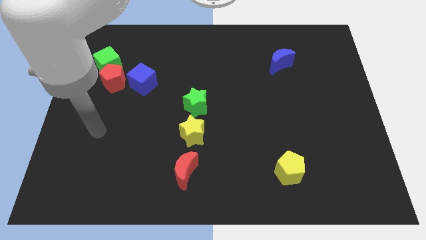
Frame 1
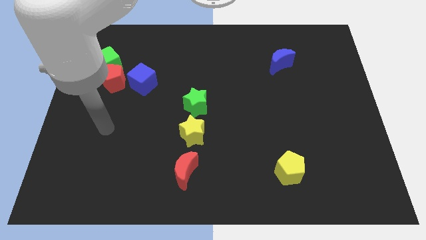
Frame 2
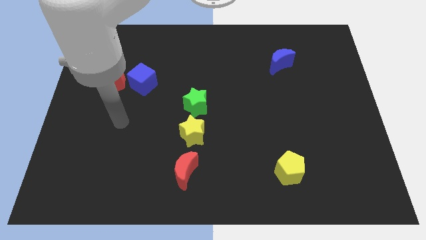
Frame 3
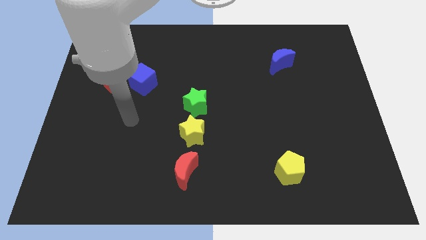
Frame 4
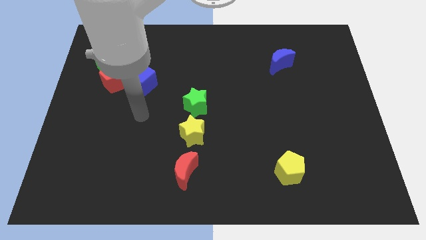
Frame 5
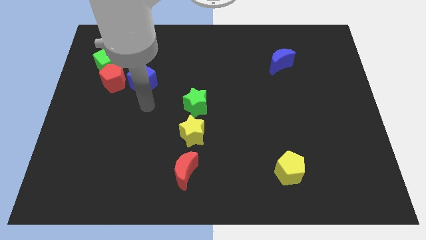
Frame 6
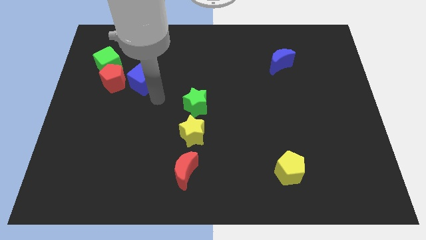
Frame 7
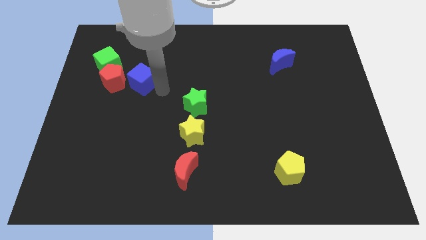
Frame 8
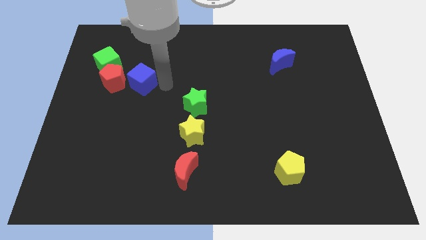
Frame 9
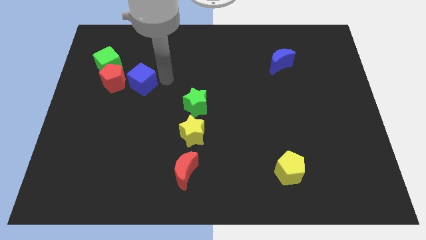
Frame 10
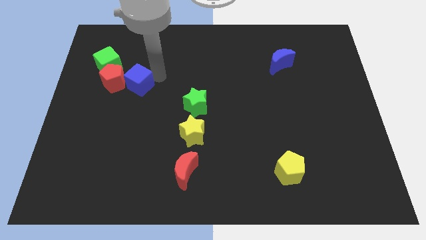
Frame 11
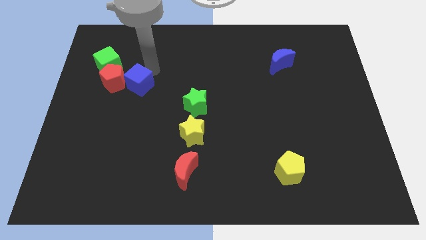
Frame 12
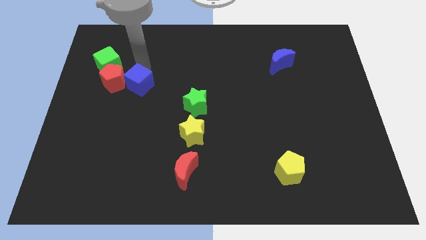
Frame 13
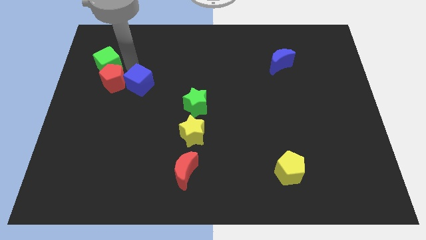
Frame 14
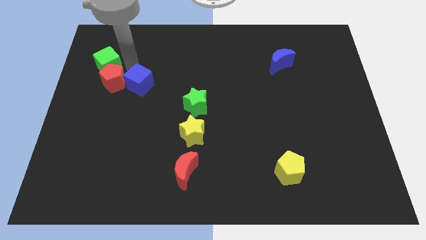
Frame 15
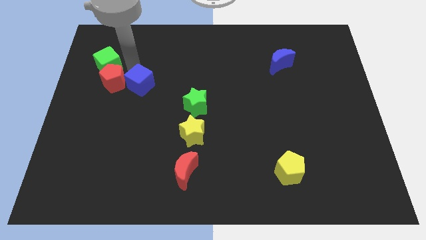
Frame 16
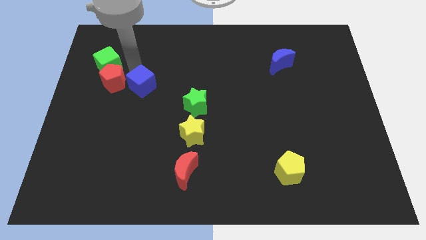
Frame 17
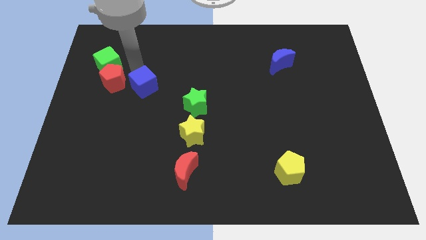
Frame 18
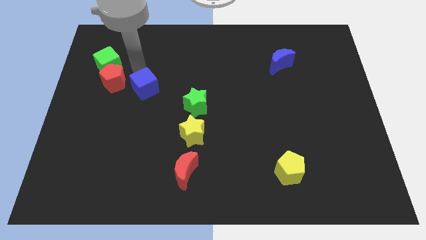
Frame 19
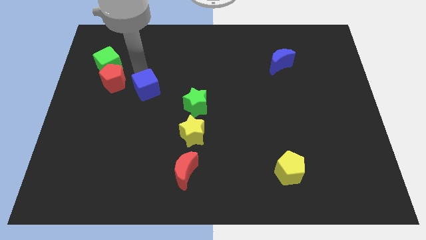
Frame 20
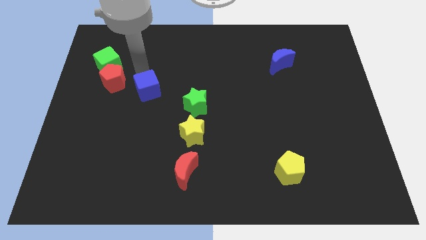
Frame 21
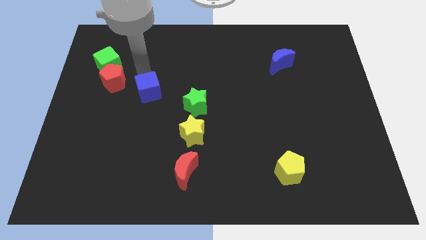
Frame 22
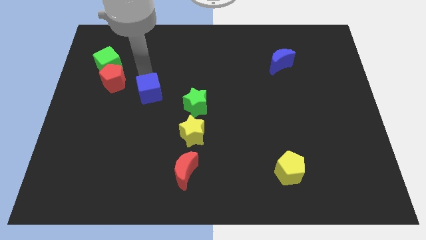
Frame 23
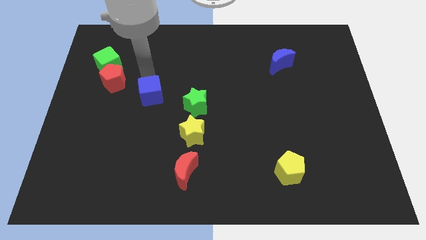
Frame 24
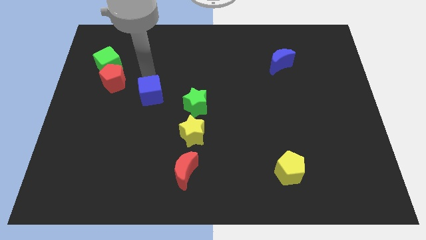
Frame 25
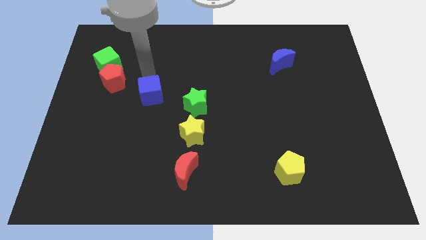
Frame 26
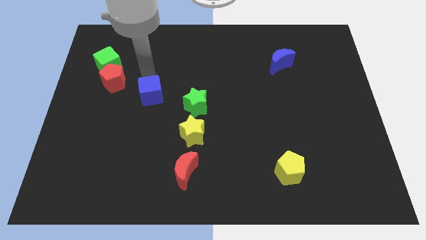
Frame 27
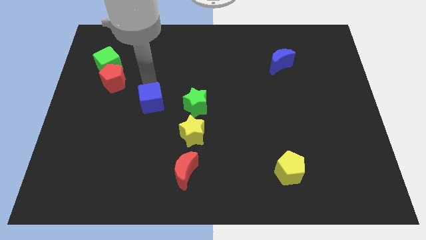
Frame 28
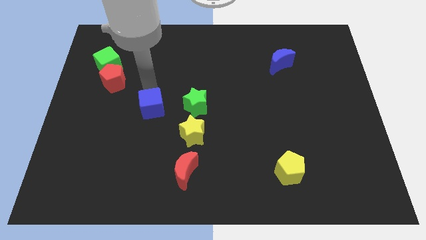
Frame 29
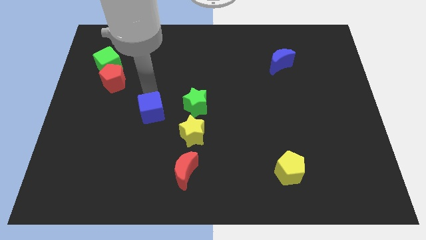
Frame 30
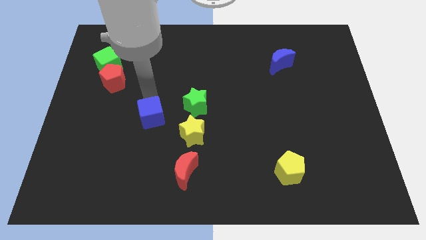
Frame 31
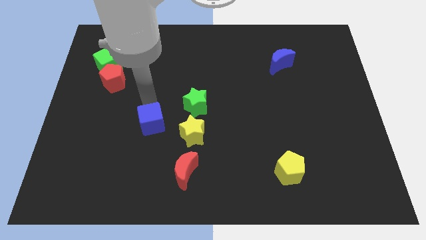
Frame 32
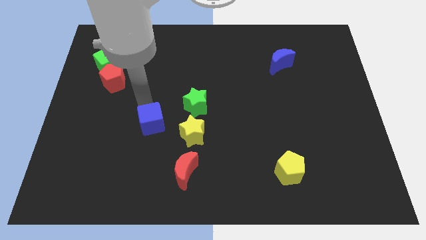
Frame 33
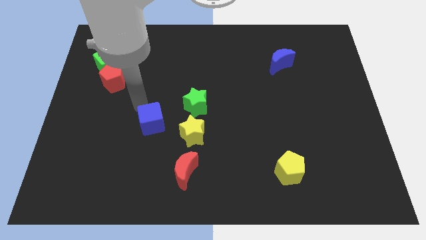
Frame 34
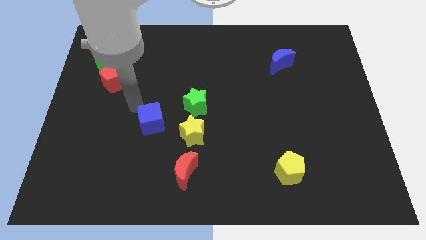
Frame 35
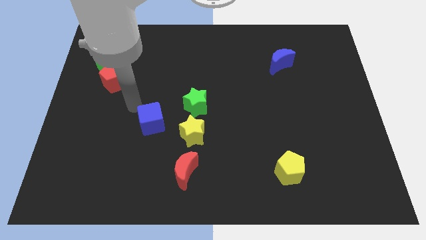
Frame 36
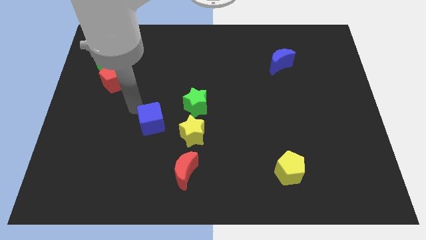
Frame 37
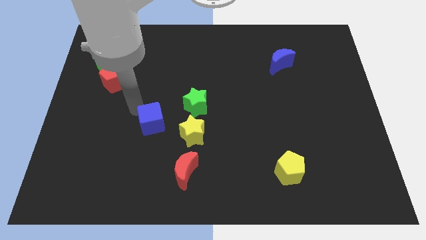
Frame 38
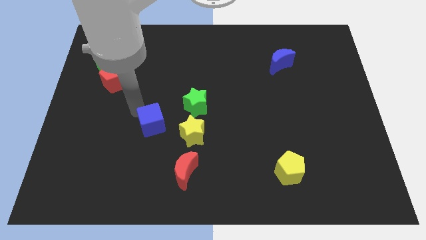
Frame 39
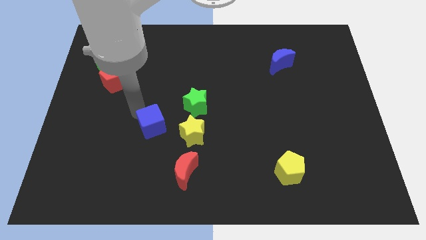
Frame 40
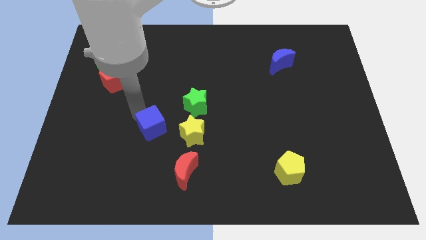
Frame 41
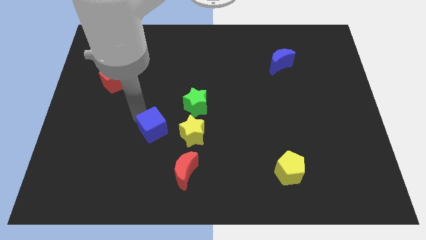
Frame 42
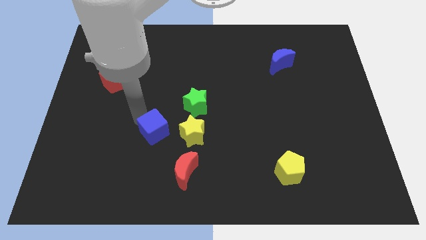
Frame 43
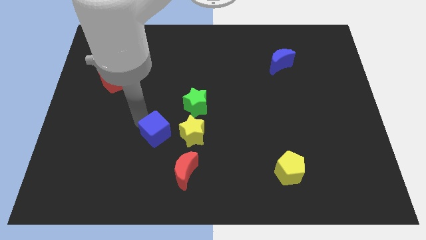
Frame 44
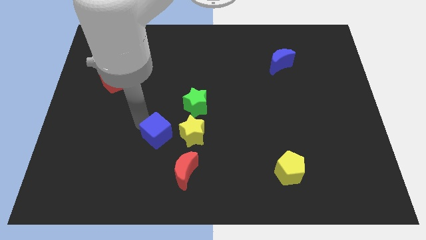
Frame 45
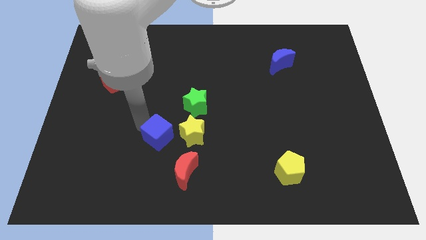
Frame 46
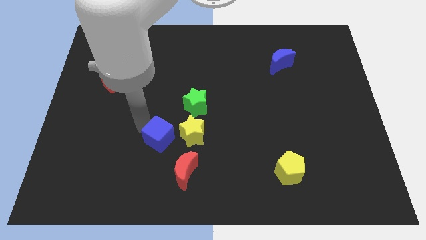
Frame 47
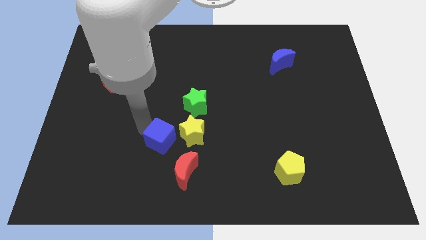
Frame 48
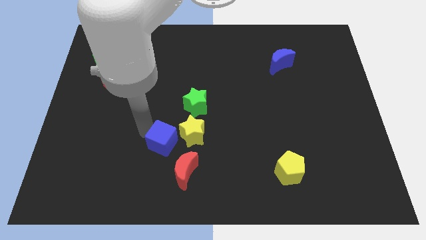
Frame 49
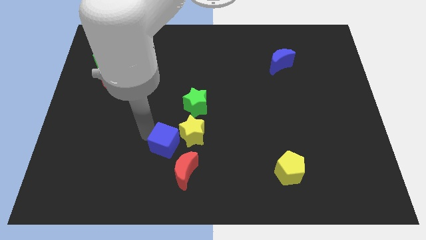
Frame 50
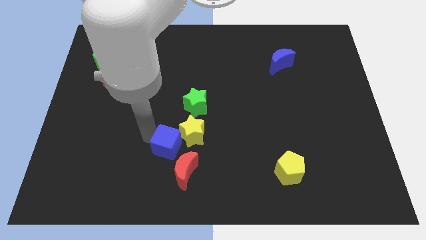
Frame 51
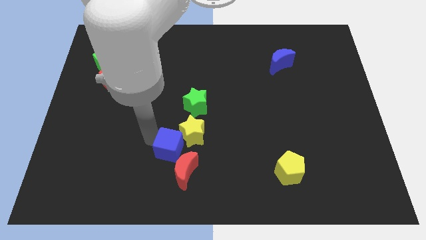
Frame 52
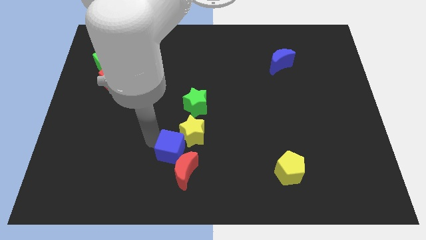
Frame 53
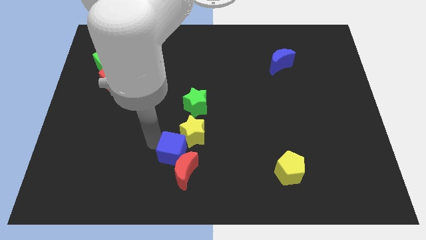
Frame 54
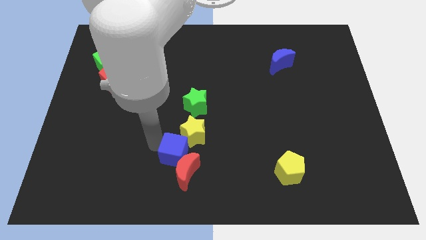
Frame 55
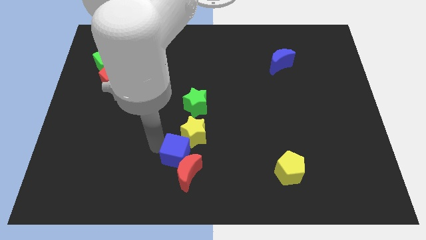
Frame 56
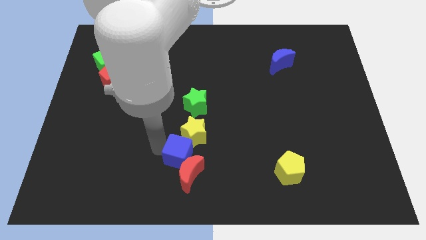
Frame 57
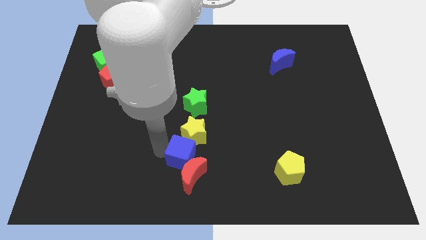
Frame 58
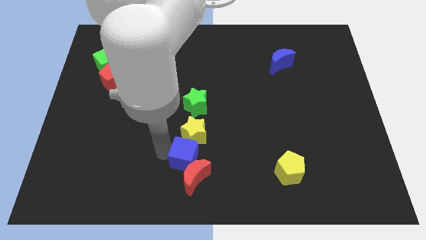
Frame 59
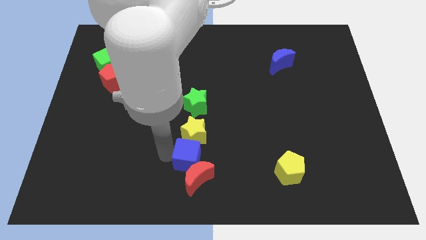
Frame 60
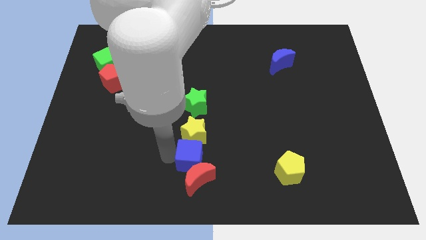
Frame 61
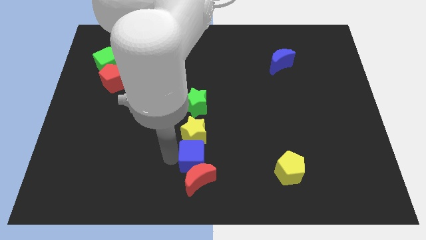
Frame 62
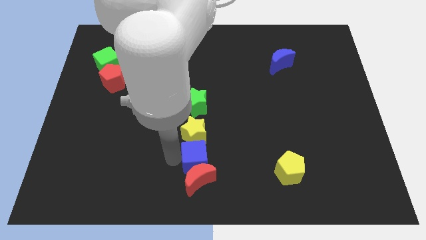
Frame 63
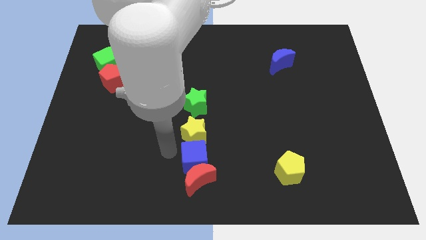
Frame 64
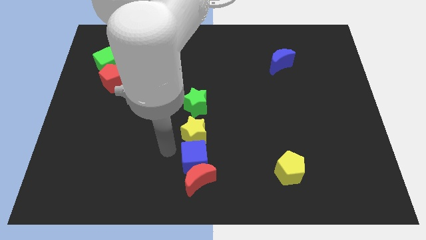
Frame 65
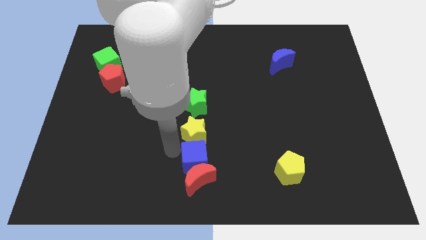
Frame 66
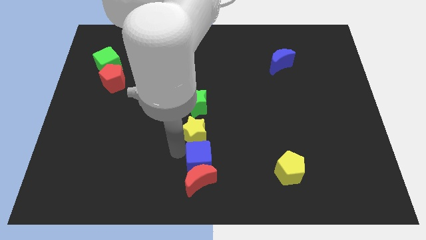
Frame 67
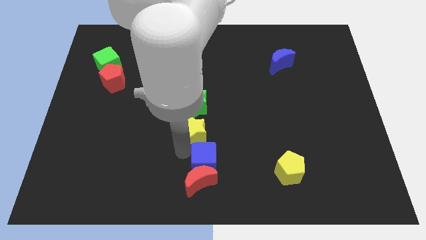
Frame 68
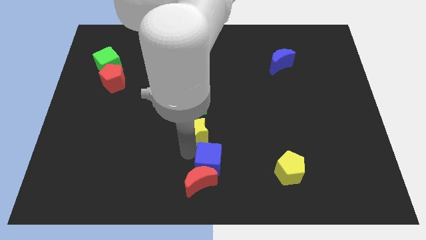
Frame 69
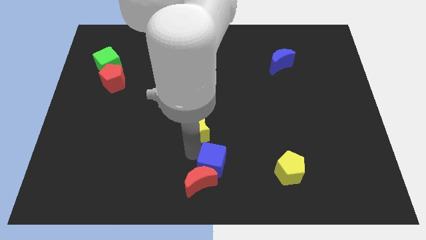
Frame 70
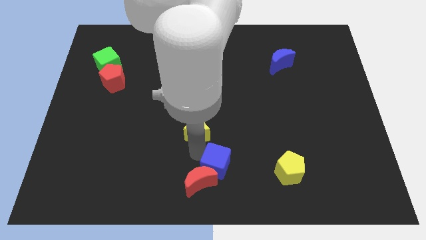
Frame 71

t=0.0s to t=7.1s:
push the blue cube to the right side of the red moon
